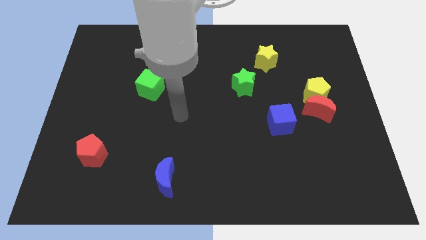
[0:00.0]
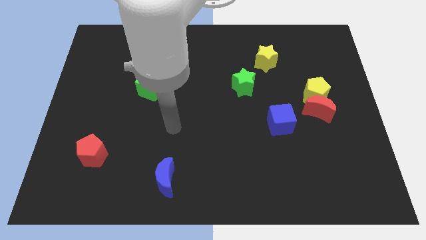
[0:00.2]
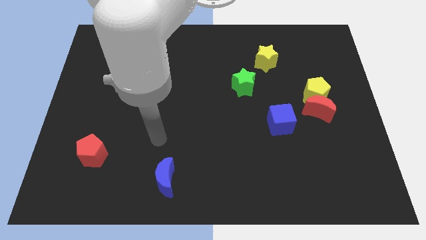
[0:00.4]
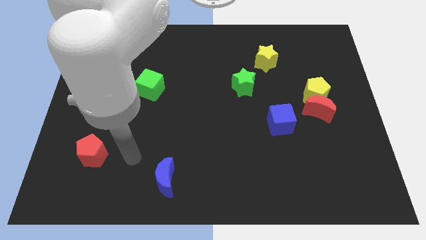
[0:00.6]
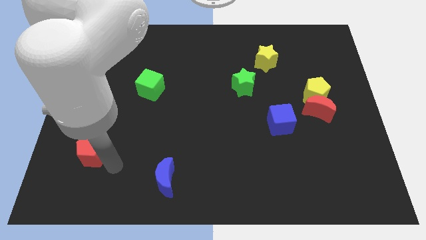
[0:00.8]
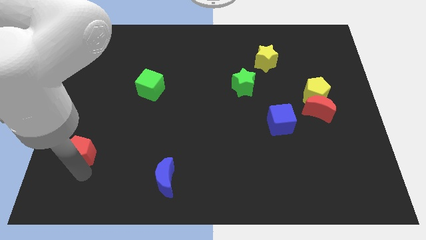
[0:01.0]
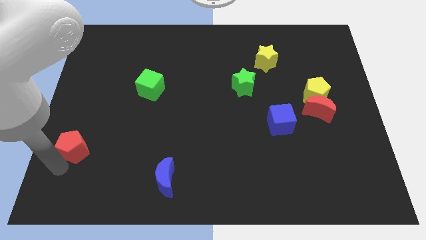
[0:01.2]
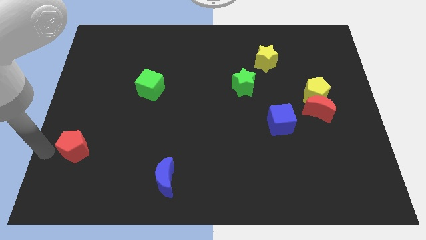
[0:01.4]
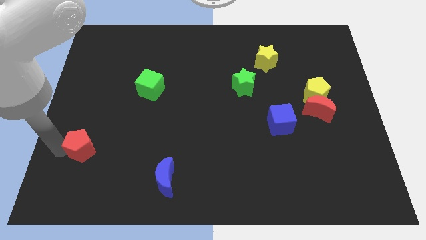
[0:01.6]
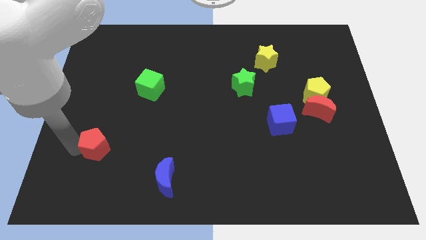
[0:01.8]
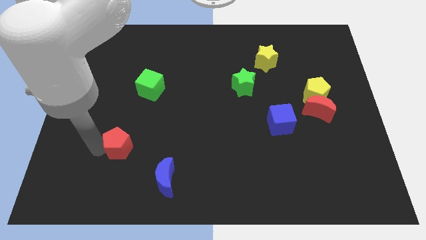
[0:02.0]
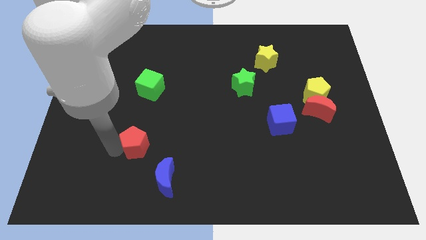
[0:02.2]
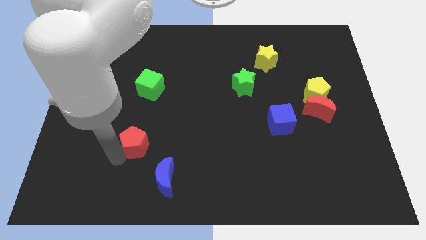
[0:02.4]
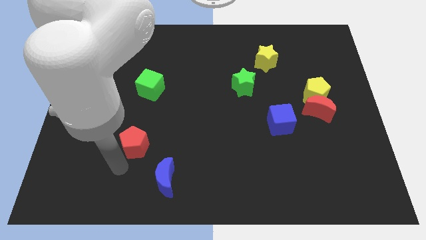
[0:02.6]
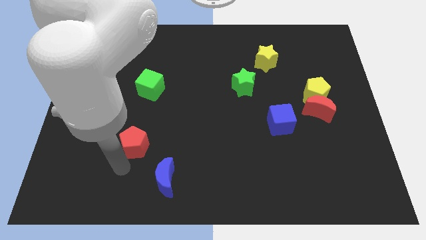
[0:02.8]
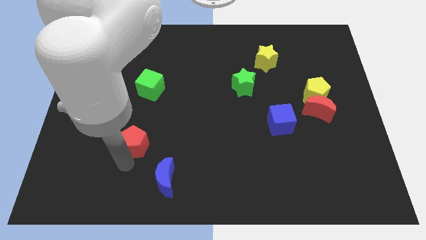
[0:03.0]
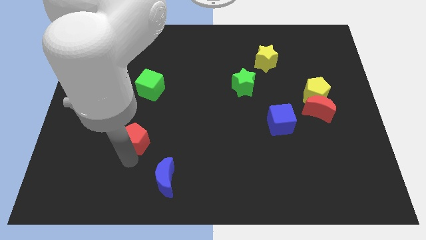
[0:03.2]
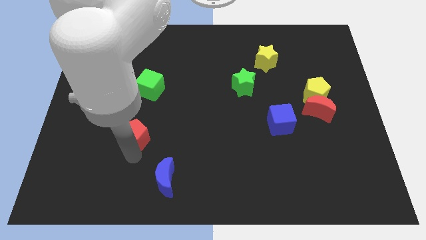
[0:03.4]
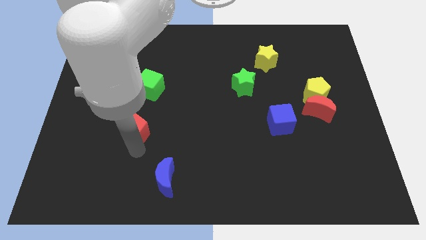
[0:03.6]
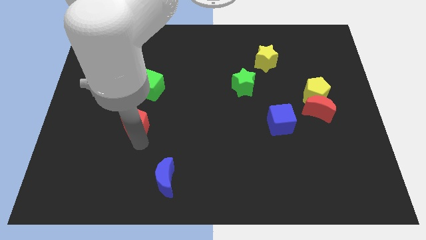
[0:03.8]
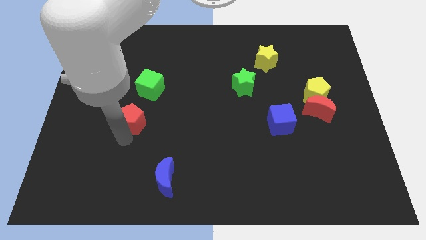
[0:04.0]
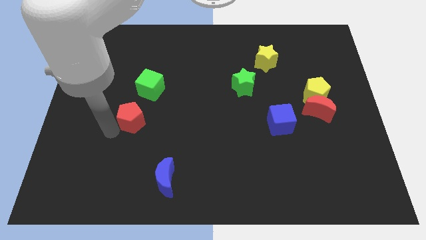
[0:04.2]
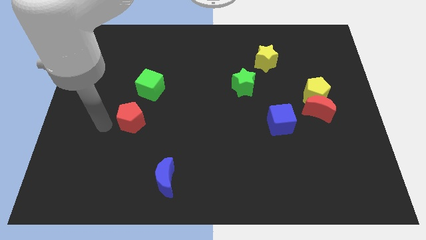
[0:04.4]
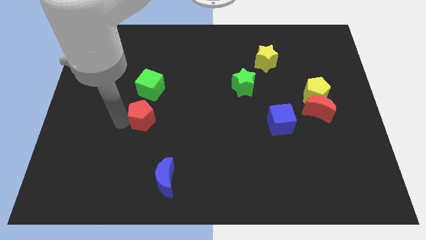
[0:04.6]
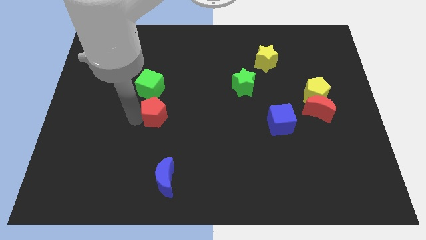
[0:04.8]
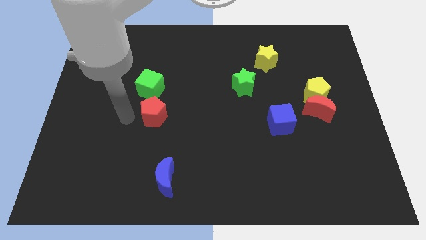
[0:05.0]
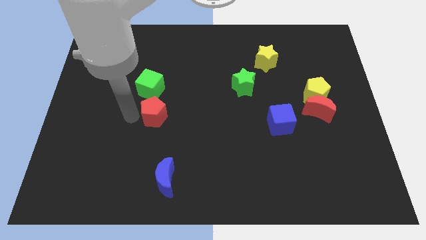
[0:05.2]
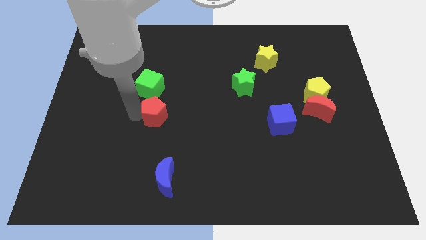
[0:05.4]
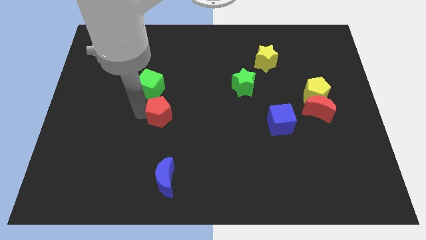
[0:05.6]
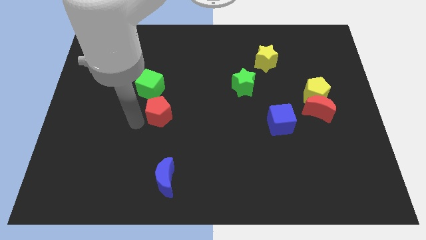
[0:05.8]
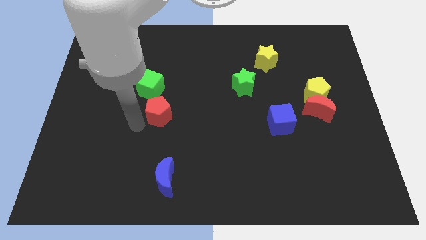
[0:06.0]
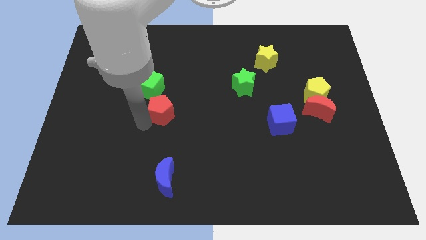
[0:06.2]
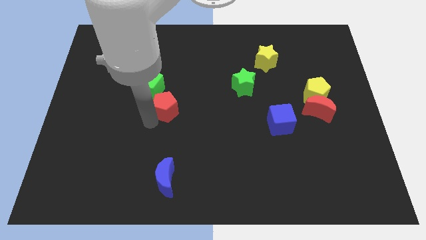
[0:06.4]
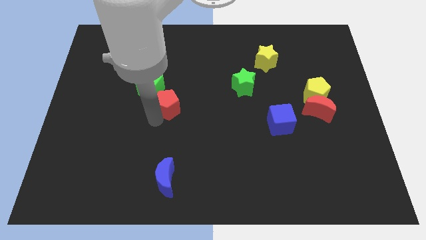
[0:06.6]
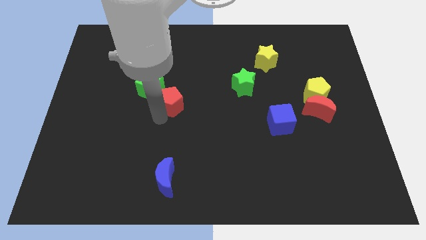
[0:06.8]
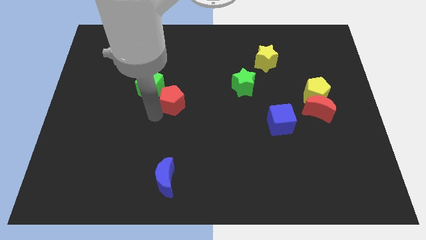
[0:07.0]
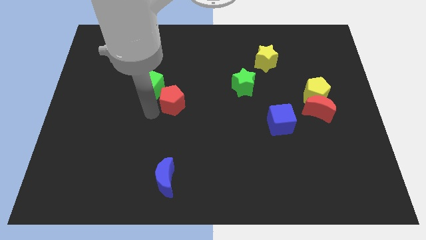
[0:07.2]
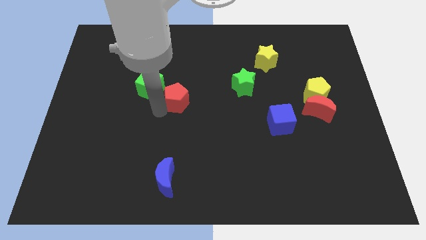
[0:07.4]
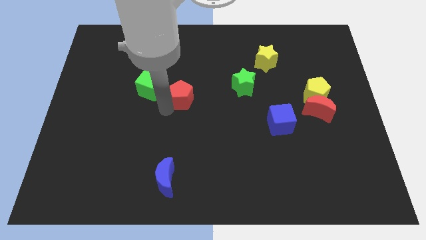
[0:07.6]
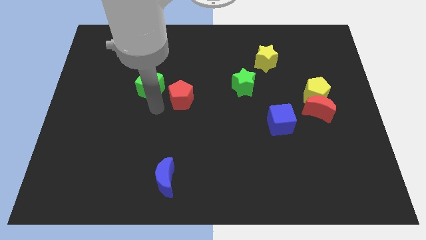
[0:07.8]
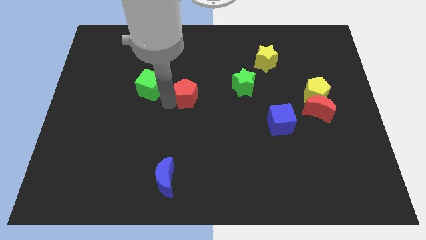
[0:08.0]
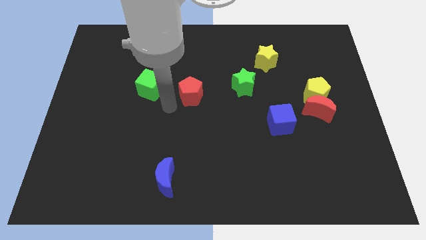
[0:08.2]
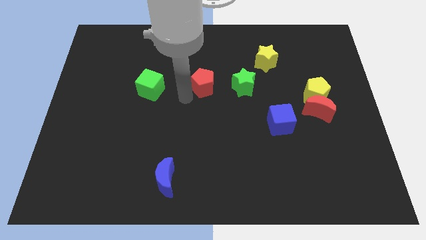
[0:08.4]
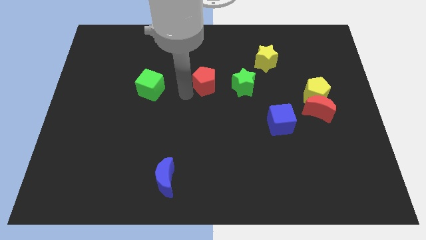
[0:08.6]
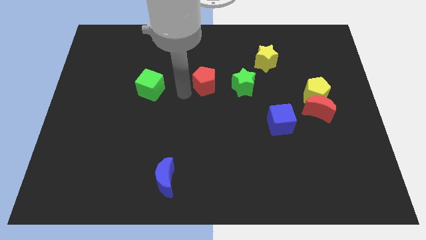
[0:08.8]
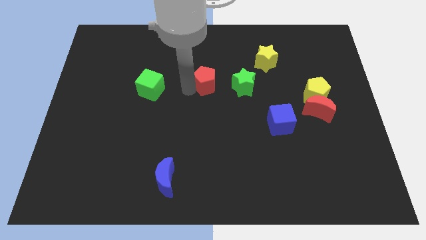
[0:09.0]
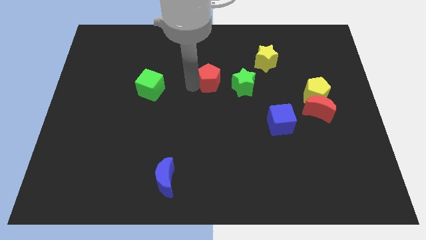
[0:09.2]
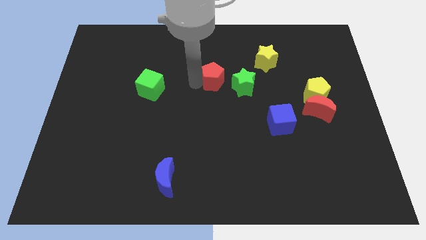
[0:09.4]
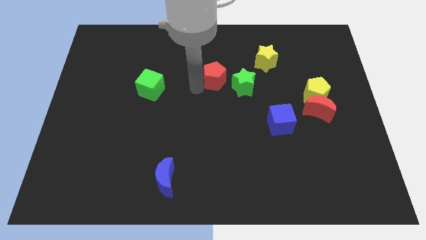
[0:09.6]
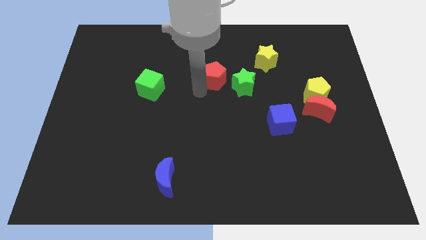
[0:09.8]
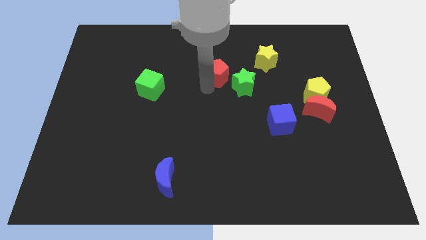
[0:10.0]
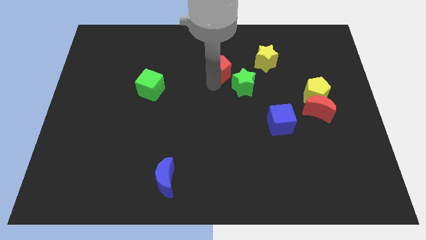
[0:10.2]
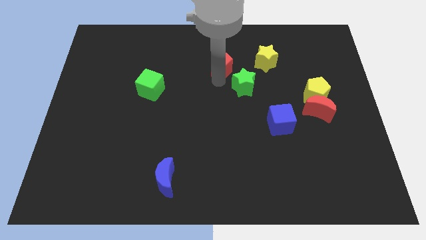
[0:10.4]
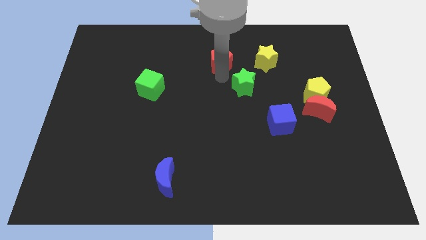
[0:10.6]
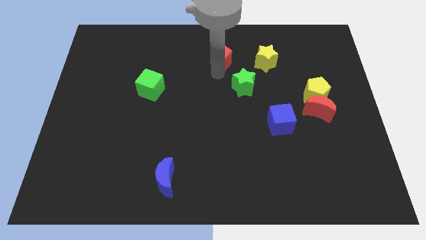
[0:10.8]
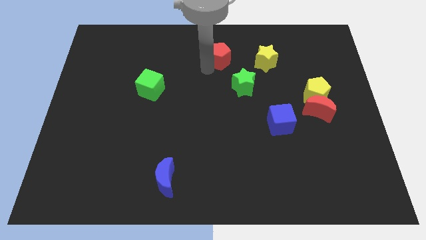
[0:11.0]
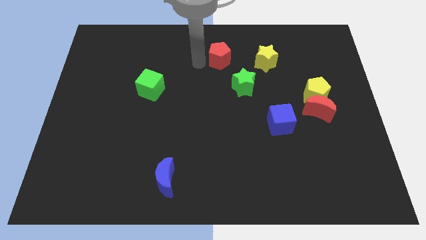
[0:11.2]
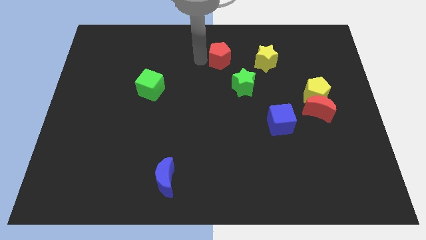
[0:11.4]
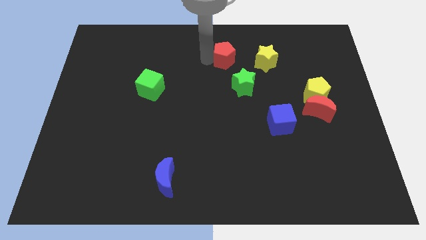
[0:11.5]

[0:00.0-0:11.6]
slide the red pentagon above the green star

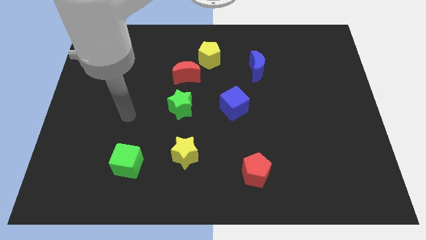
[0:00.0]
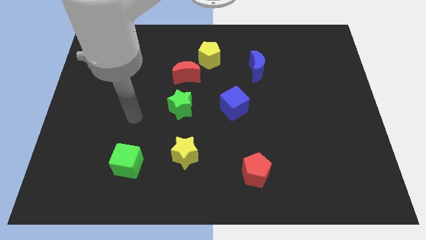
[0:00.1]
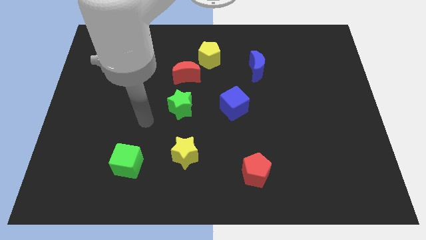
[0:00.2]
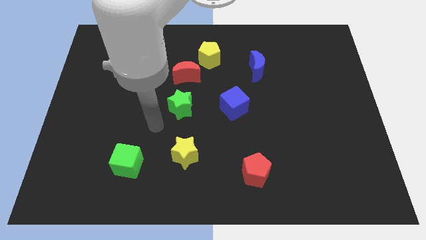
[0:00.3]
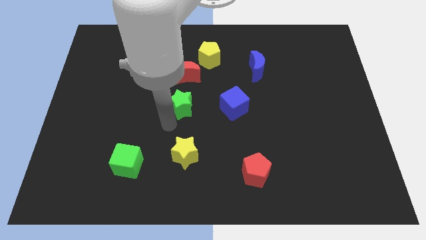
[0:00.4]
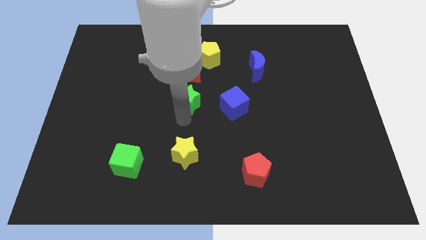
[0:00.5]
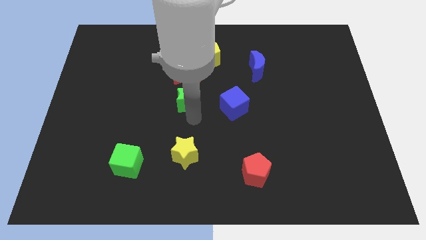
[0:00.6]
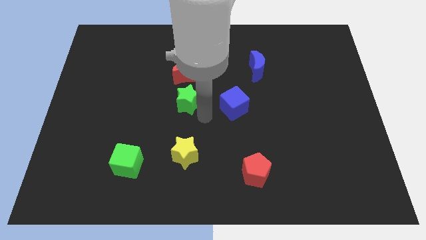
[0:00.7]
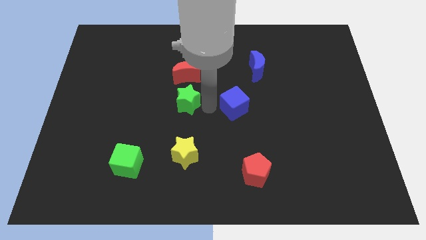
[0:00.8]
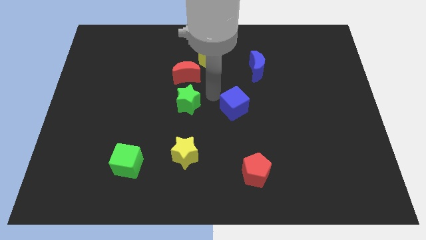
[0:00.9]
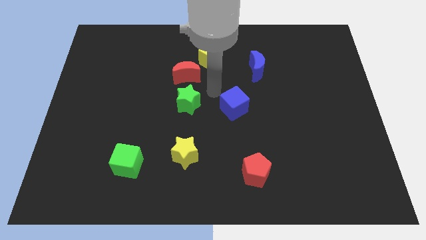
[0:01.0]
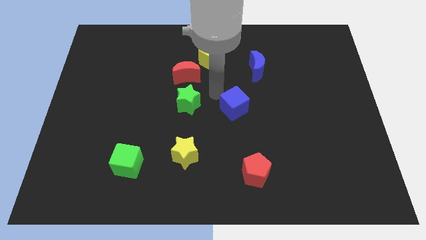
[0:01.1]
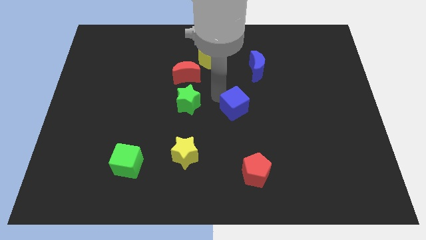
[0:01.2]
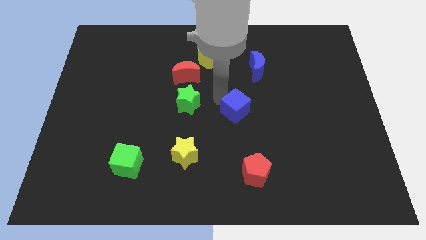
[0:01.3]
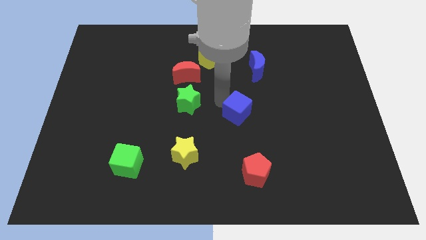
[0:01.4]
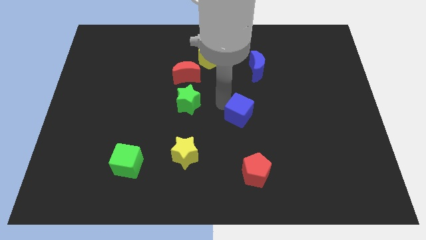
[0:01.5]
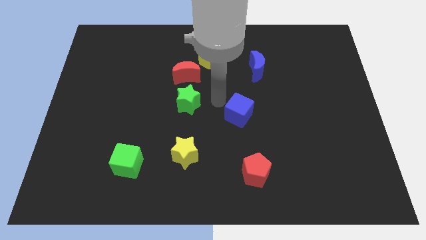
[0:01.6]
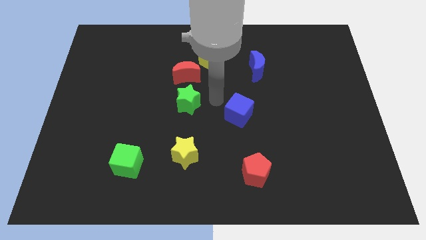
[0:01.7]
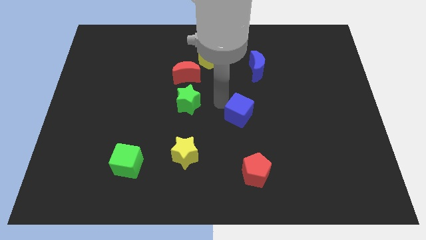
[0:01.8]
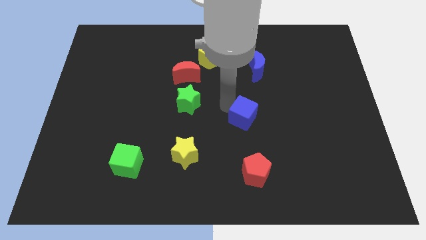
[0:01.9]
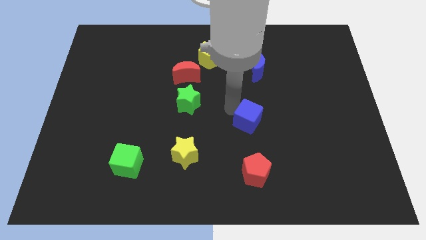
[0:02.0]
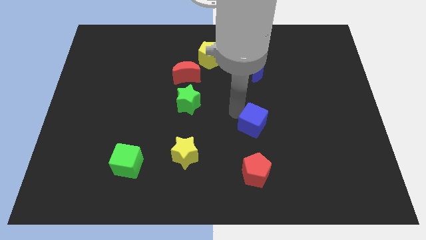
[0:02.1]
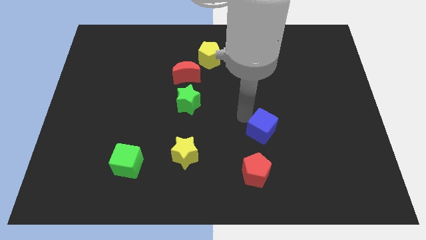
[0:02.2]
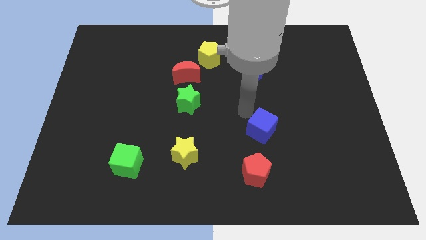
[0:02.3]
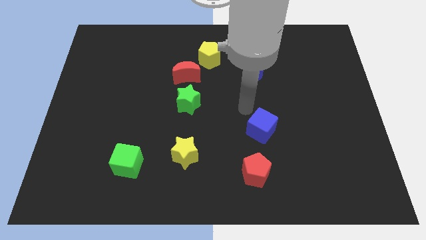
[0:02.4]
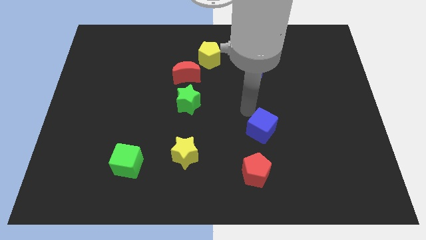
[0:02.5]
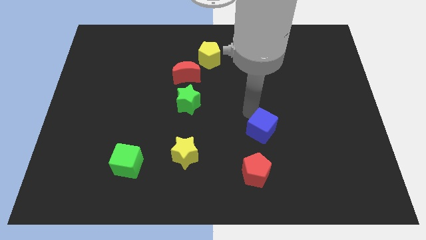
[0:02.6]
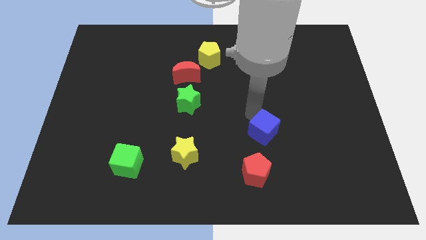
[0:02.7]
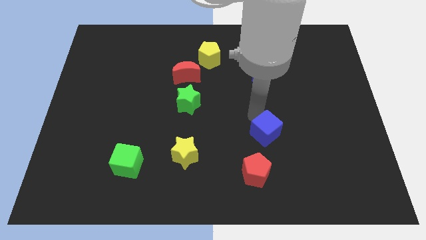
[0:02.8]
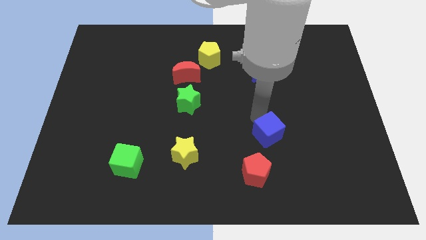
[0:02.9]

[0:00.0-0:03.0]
slide the blue cube to the top right of the red pentagon
